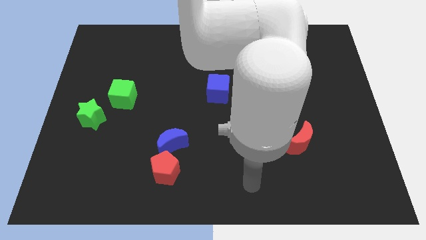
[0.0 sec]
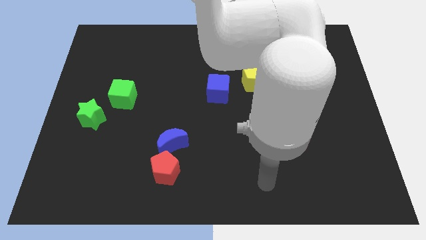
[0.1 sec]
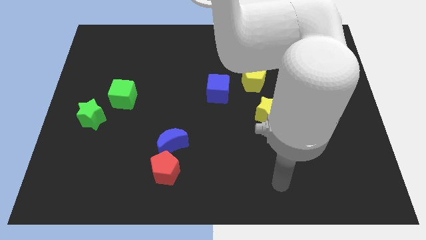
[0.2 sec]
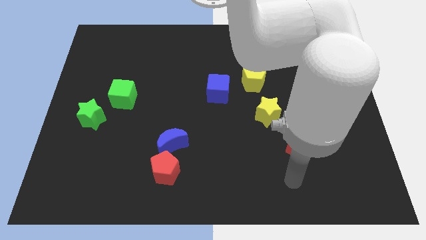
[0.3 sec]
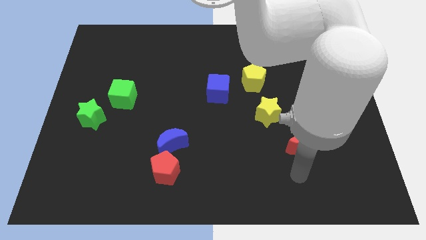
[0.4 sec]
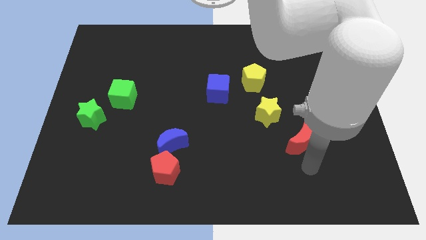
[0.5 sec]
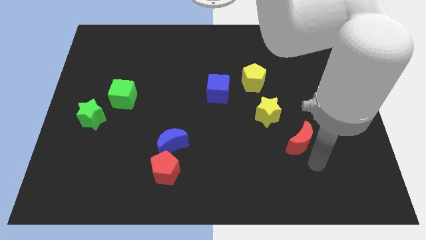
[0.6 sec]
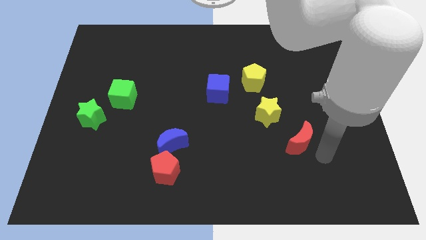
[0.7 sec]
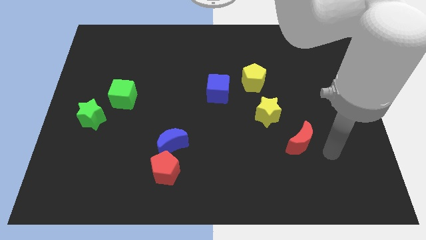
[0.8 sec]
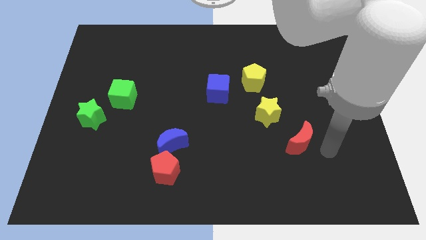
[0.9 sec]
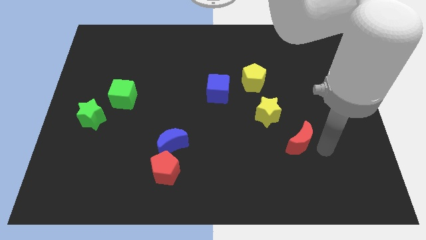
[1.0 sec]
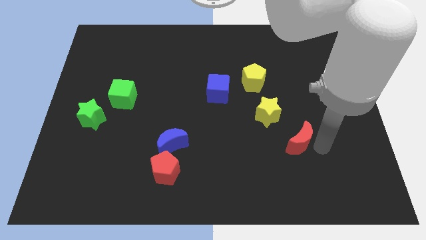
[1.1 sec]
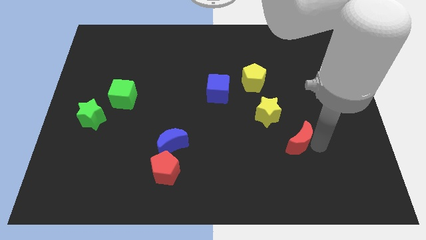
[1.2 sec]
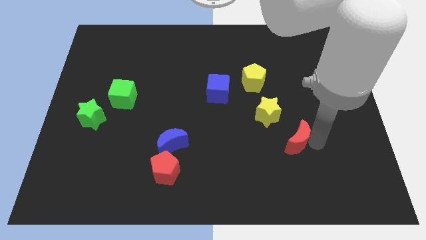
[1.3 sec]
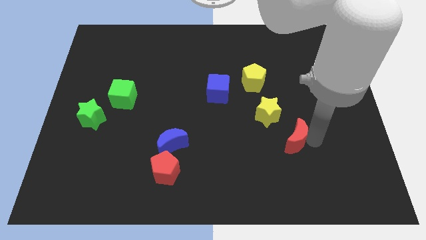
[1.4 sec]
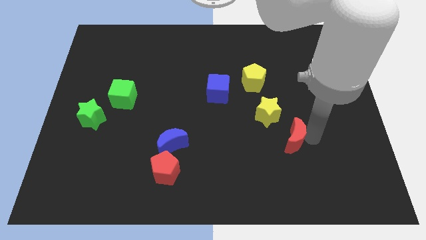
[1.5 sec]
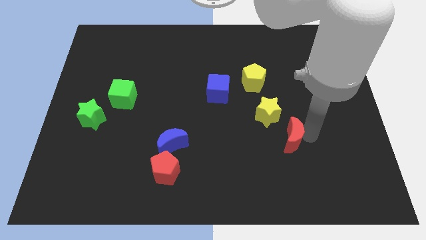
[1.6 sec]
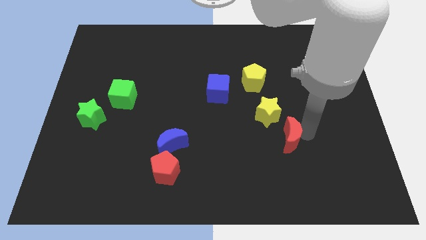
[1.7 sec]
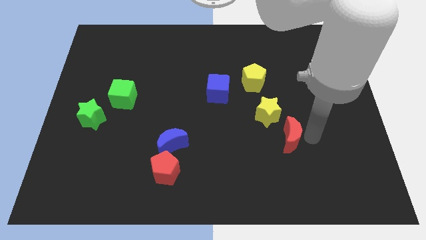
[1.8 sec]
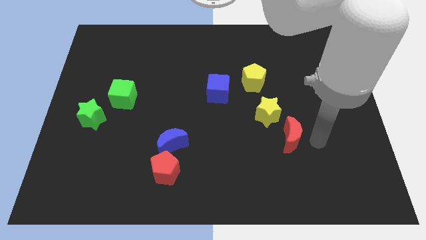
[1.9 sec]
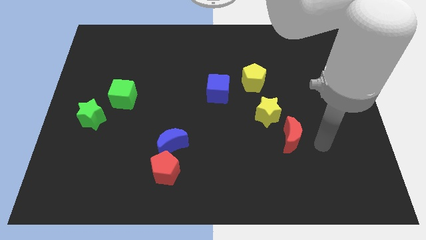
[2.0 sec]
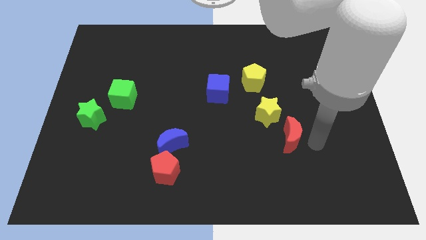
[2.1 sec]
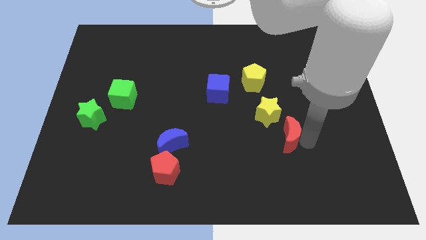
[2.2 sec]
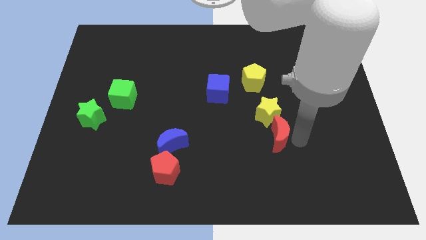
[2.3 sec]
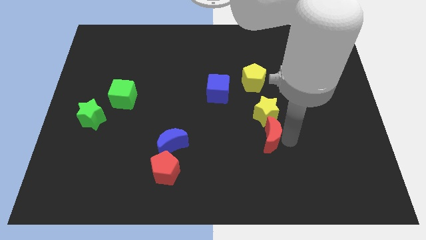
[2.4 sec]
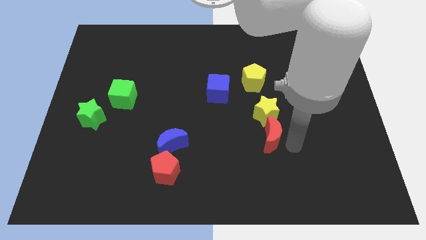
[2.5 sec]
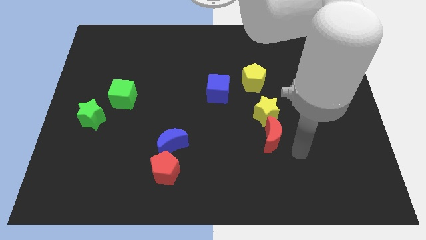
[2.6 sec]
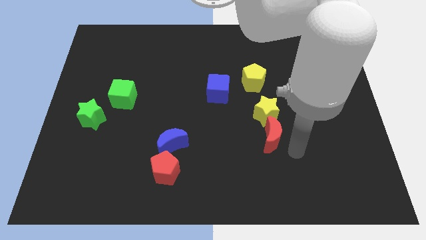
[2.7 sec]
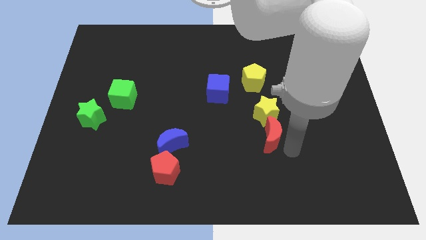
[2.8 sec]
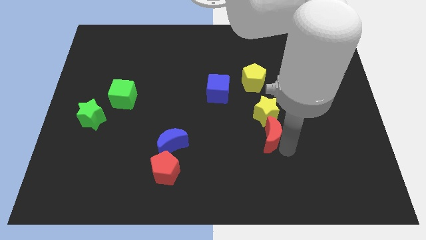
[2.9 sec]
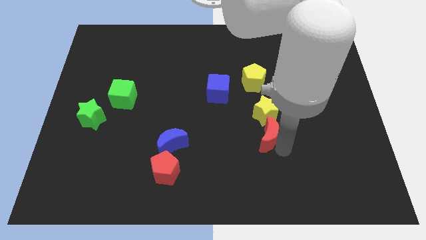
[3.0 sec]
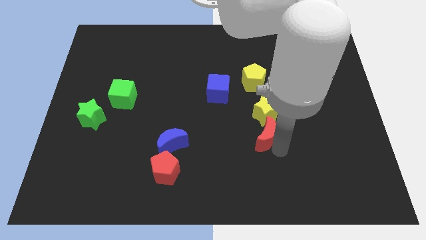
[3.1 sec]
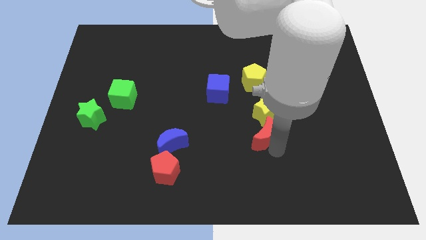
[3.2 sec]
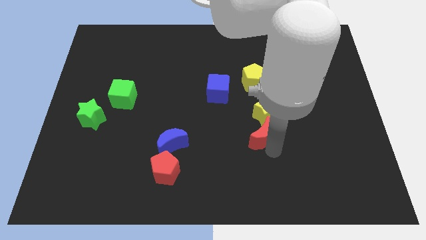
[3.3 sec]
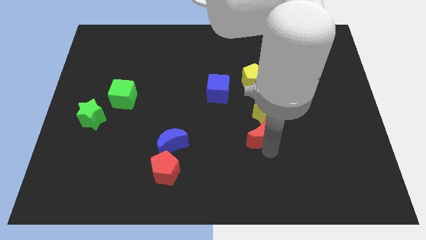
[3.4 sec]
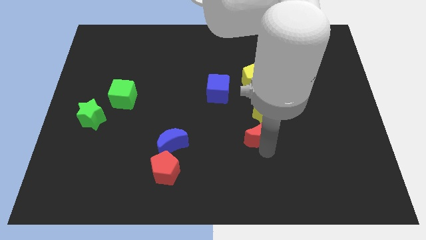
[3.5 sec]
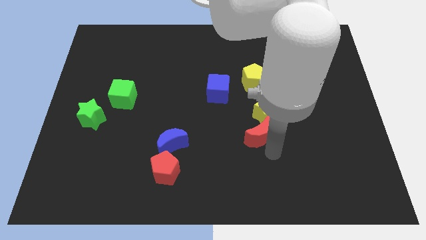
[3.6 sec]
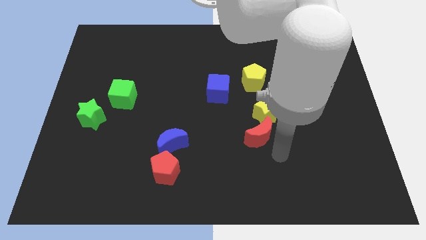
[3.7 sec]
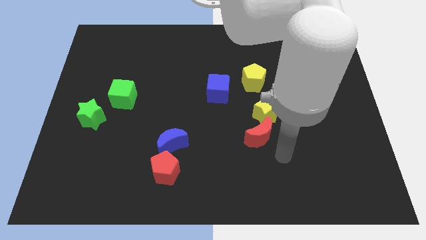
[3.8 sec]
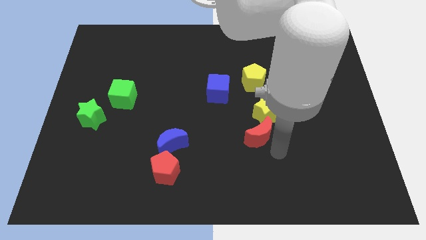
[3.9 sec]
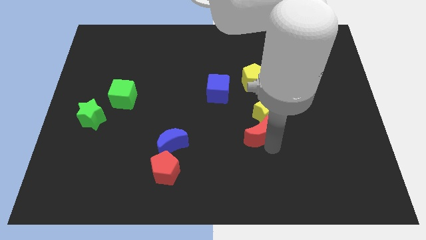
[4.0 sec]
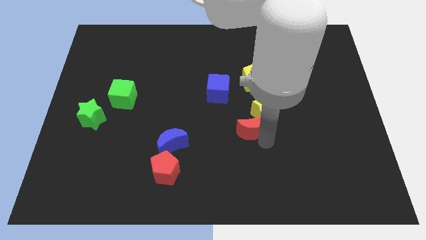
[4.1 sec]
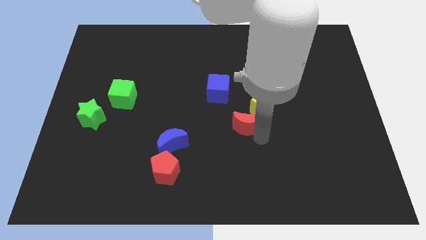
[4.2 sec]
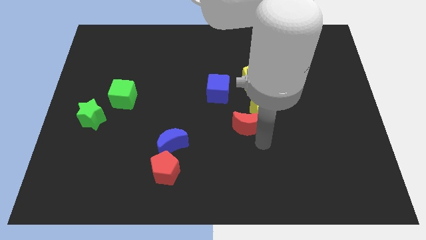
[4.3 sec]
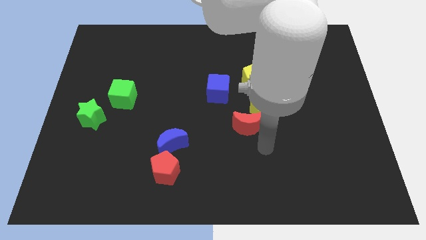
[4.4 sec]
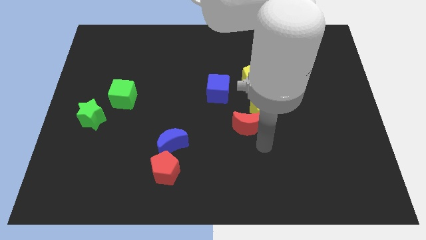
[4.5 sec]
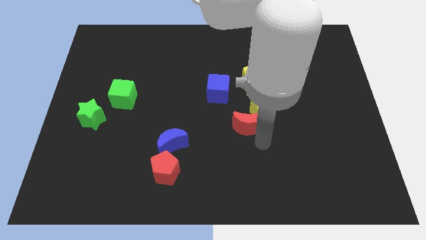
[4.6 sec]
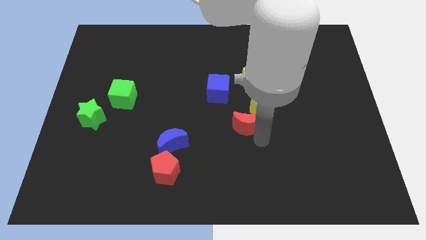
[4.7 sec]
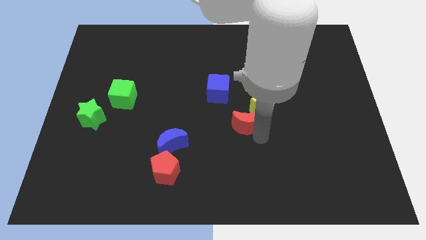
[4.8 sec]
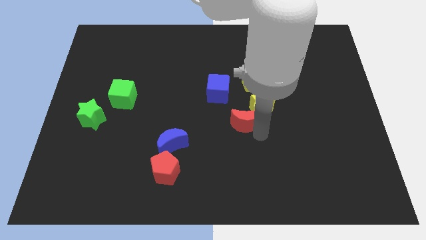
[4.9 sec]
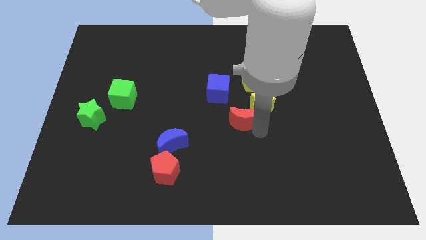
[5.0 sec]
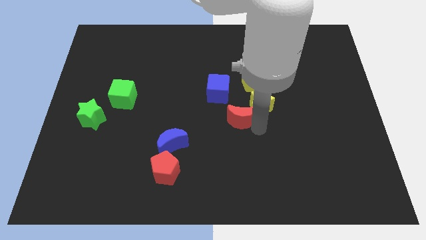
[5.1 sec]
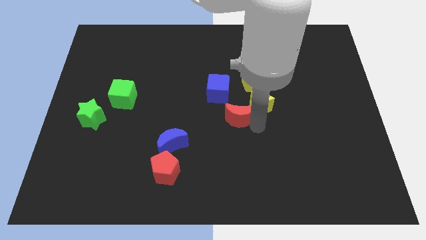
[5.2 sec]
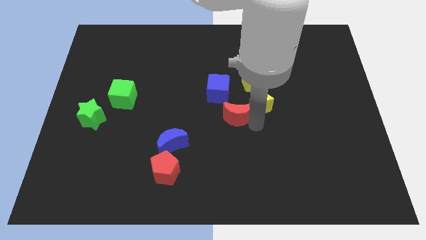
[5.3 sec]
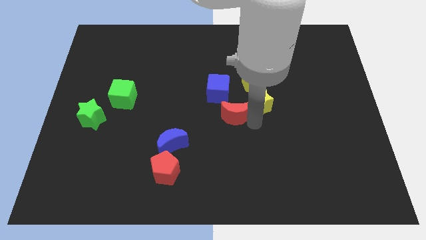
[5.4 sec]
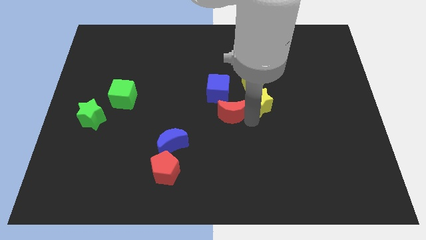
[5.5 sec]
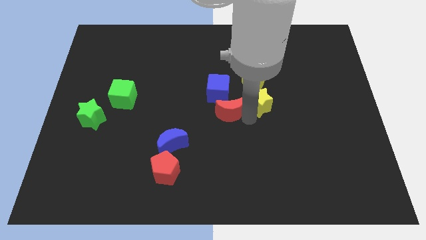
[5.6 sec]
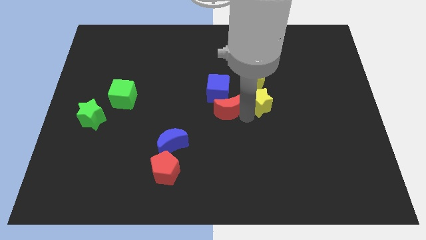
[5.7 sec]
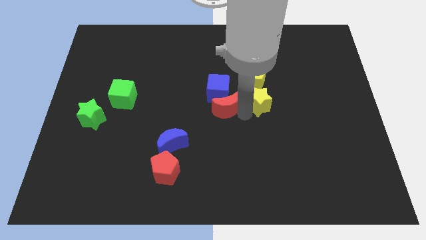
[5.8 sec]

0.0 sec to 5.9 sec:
move the red moon towards the blue cube

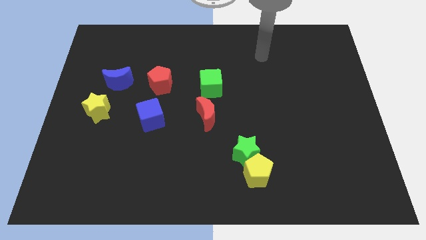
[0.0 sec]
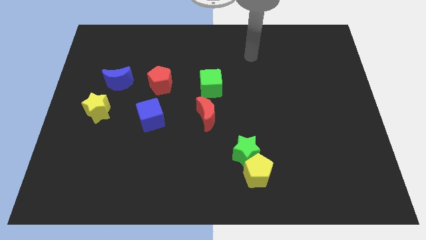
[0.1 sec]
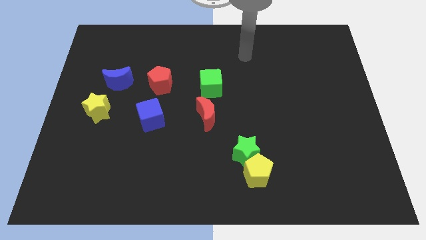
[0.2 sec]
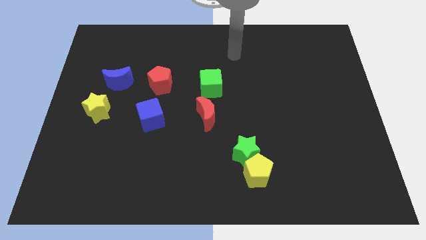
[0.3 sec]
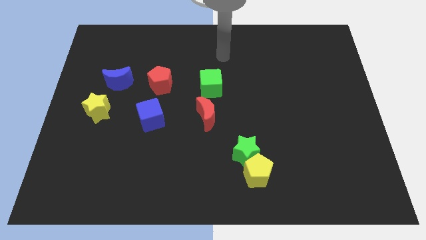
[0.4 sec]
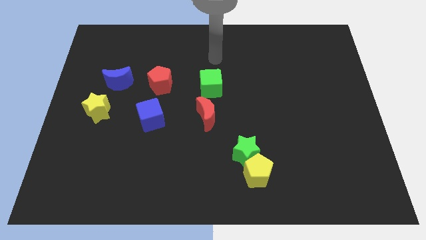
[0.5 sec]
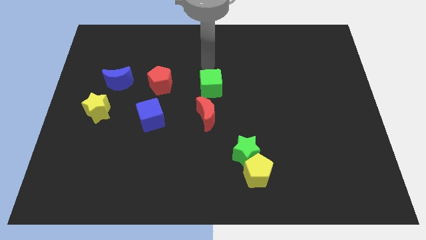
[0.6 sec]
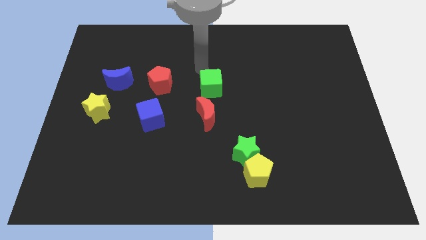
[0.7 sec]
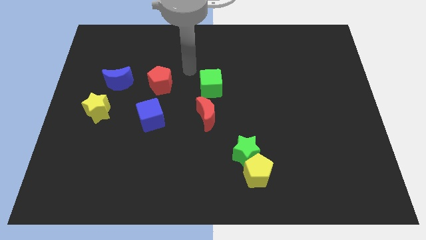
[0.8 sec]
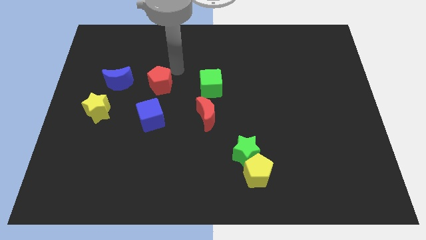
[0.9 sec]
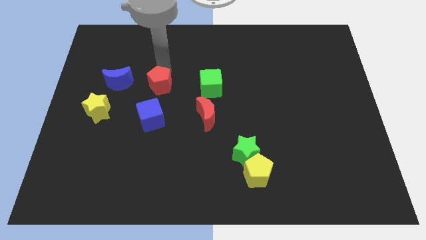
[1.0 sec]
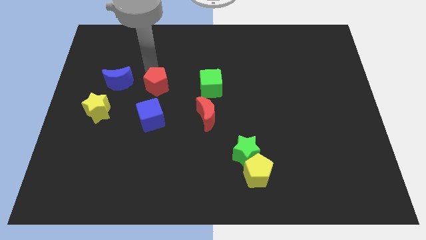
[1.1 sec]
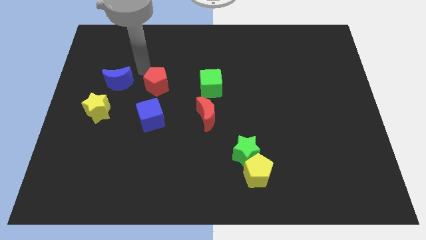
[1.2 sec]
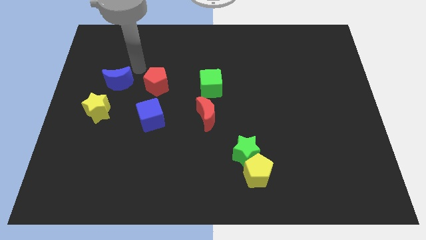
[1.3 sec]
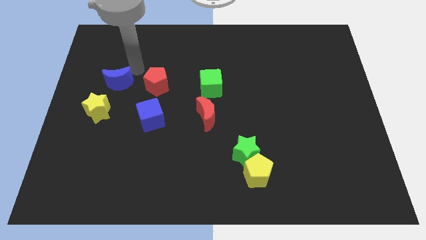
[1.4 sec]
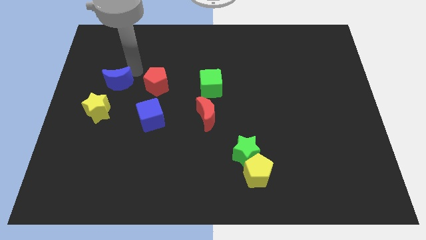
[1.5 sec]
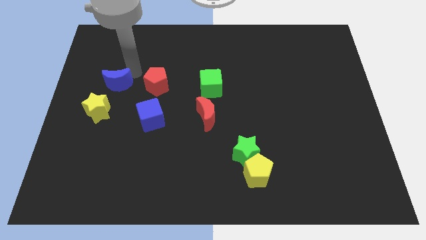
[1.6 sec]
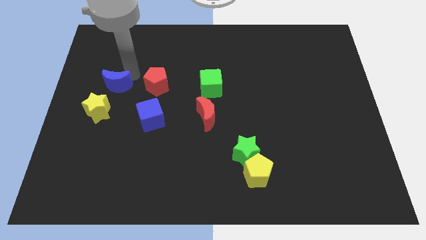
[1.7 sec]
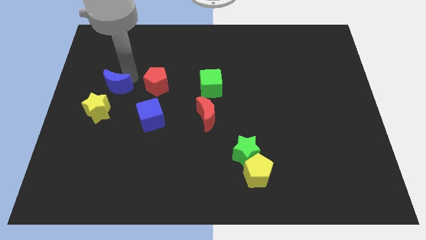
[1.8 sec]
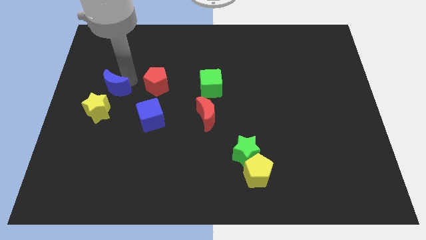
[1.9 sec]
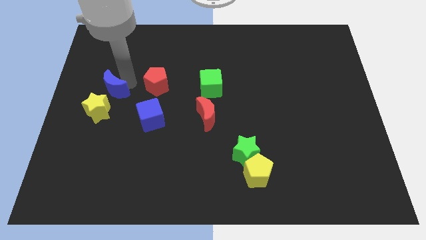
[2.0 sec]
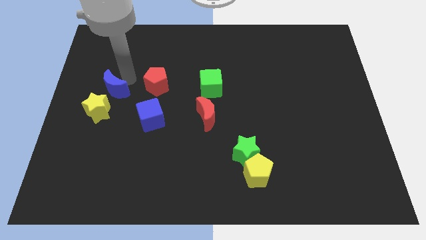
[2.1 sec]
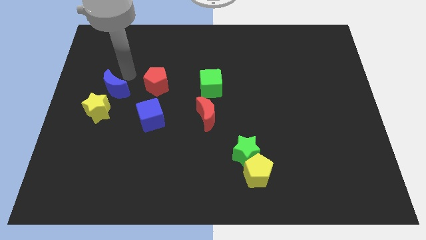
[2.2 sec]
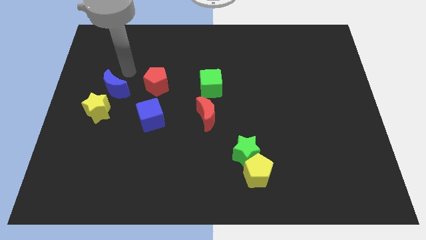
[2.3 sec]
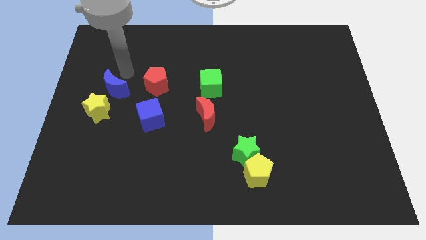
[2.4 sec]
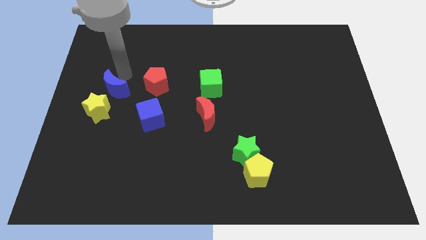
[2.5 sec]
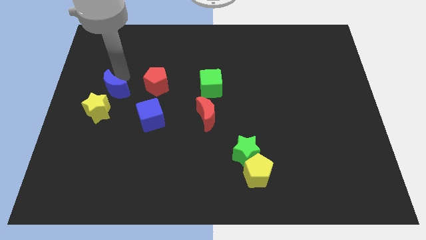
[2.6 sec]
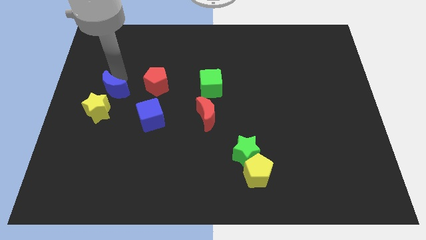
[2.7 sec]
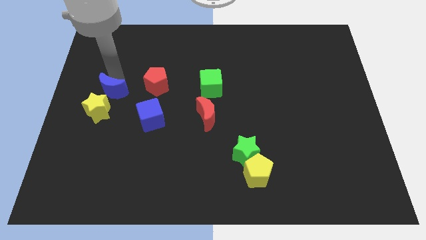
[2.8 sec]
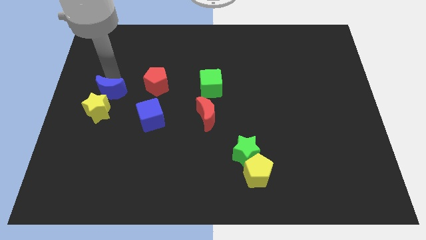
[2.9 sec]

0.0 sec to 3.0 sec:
push the blue moon next to the yellow star
